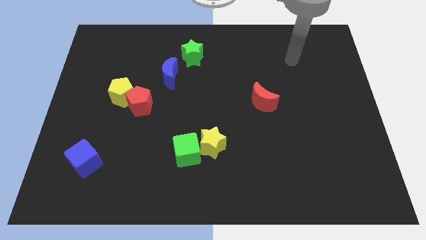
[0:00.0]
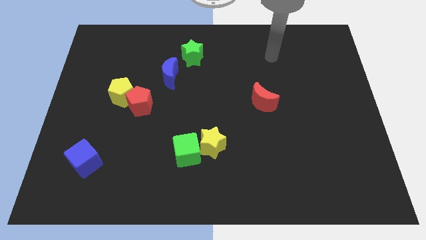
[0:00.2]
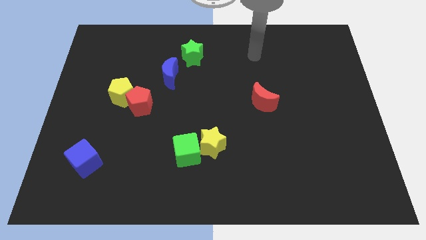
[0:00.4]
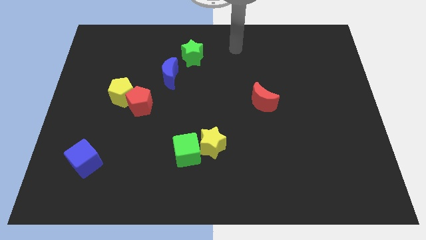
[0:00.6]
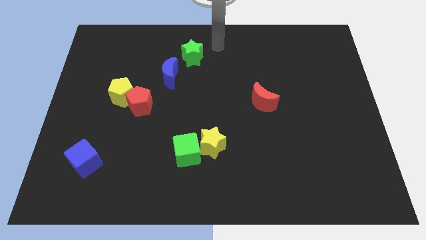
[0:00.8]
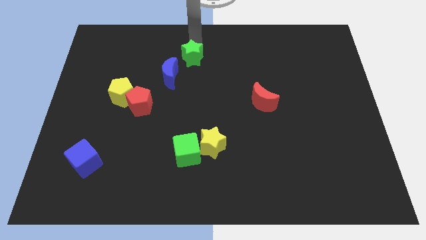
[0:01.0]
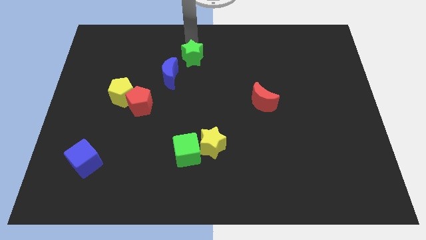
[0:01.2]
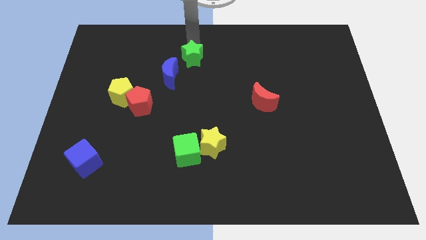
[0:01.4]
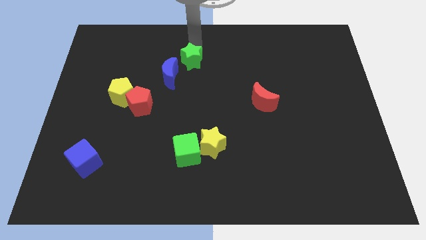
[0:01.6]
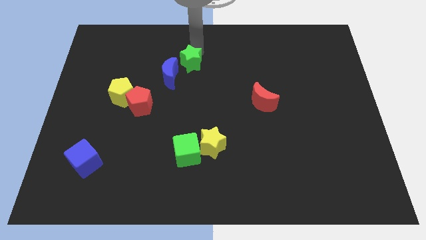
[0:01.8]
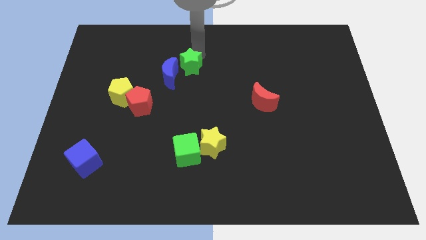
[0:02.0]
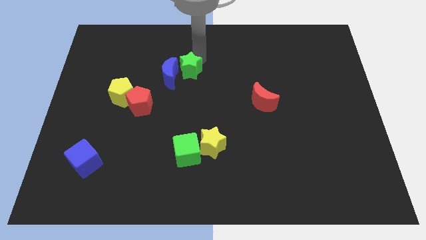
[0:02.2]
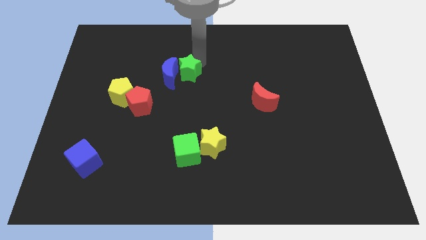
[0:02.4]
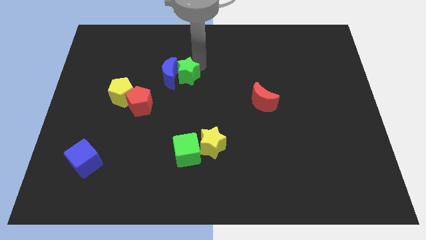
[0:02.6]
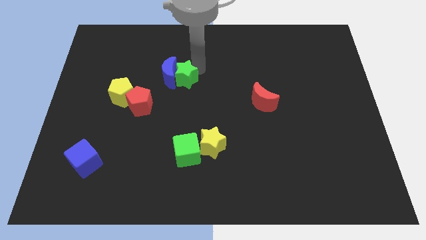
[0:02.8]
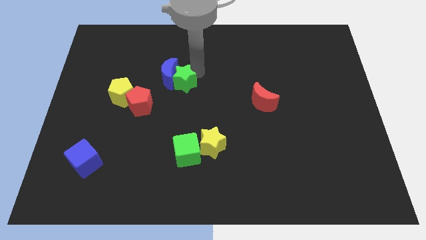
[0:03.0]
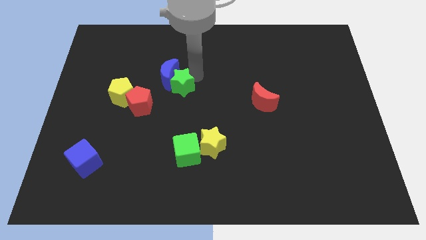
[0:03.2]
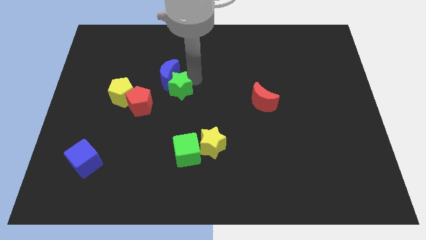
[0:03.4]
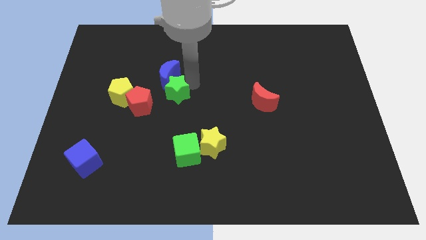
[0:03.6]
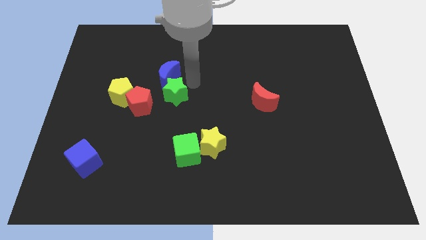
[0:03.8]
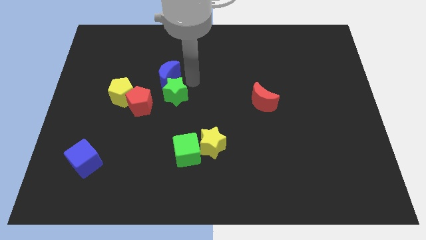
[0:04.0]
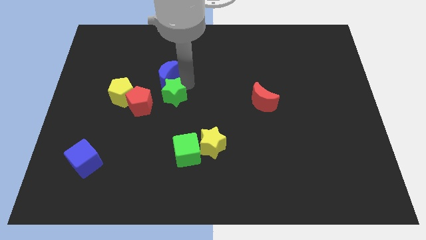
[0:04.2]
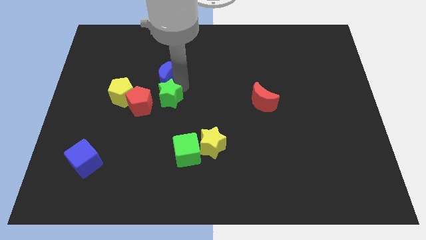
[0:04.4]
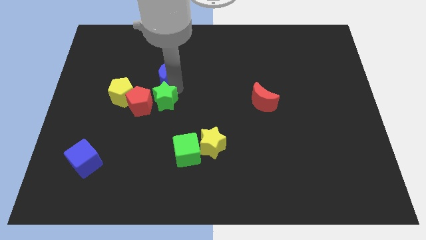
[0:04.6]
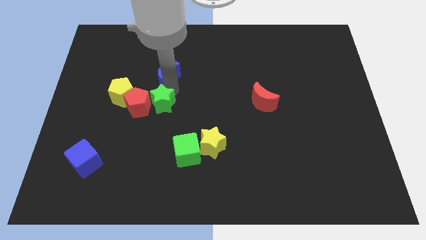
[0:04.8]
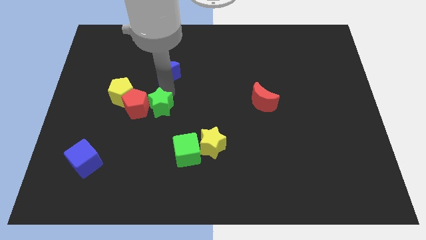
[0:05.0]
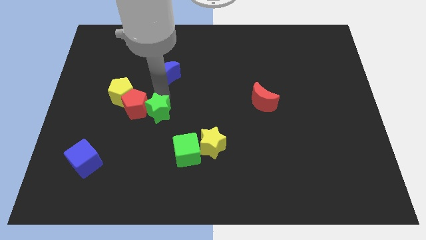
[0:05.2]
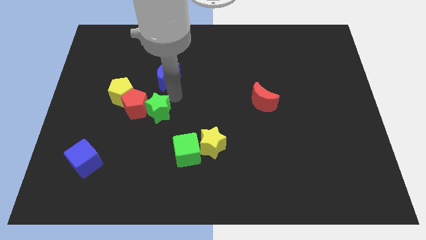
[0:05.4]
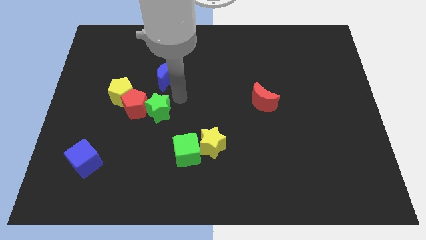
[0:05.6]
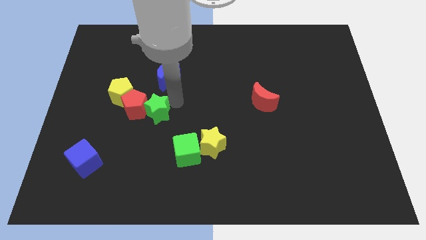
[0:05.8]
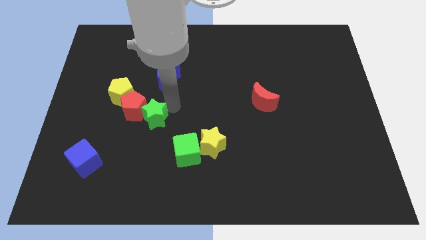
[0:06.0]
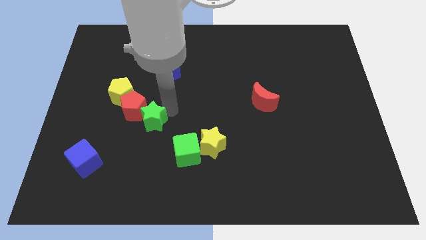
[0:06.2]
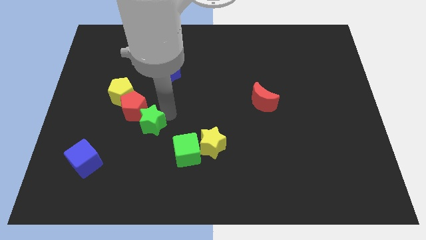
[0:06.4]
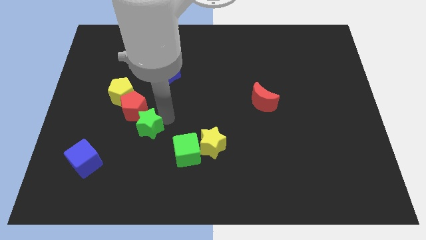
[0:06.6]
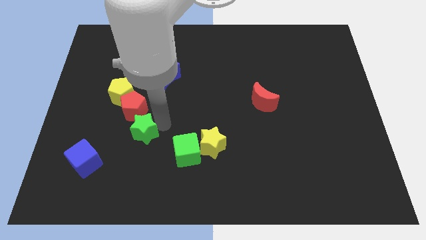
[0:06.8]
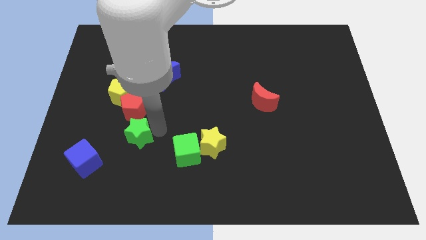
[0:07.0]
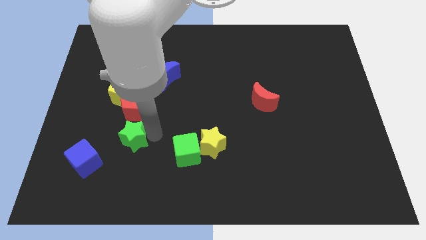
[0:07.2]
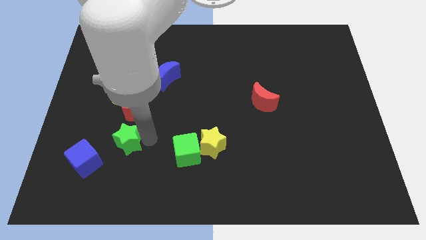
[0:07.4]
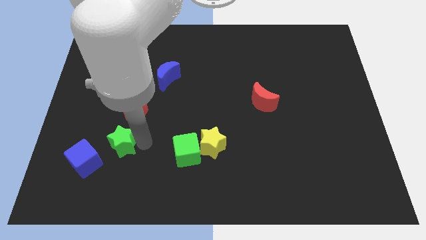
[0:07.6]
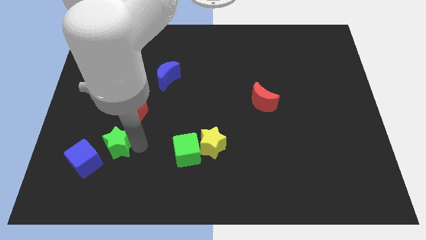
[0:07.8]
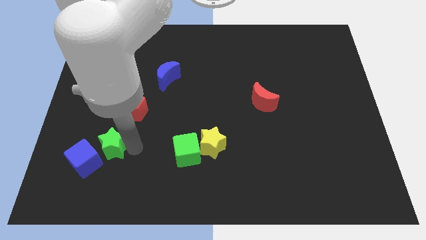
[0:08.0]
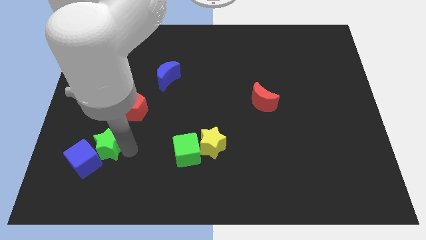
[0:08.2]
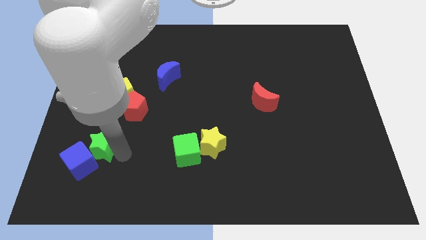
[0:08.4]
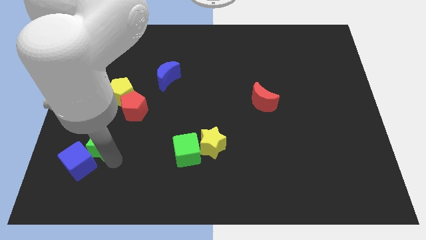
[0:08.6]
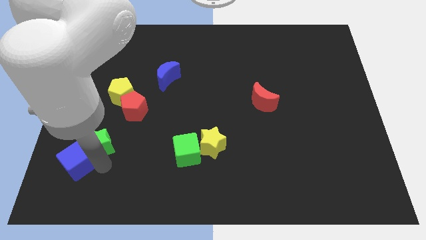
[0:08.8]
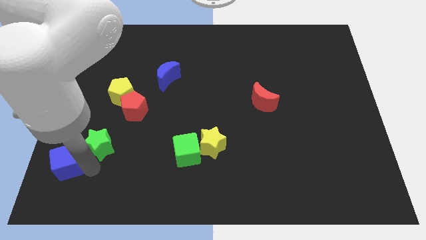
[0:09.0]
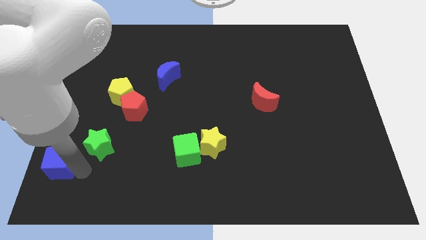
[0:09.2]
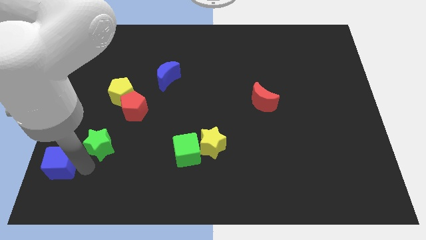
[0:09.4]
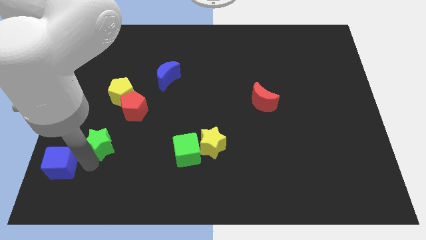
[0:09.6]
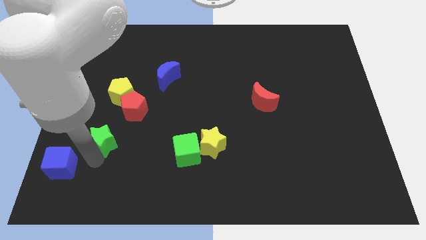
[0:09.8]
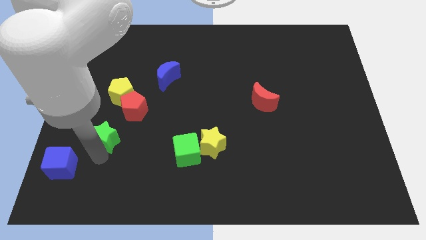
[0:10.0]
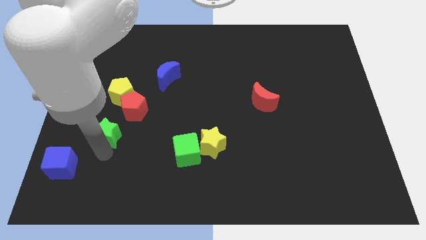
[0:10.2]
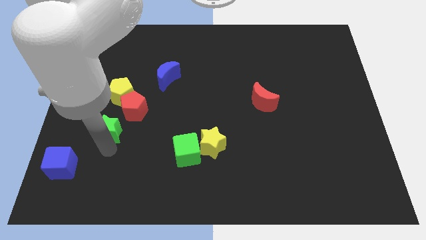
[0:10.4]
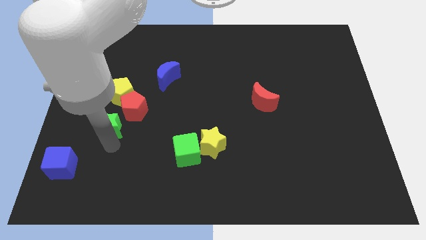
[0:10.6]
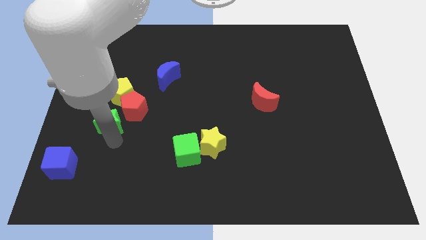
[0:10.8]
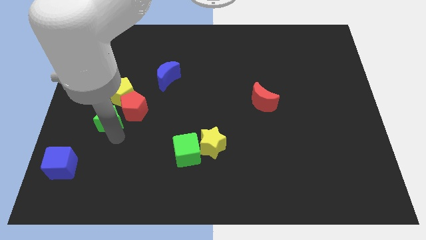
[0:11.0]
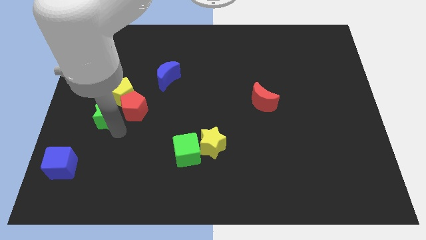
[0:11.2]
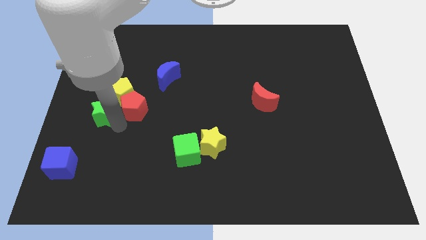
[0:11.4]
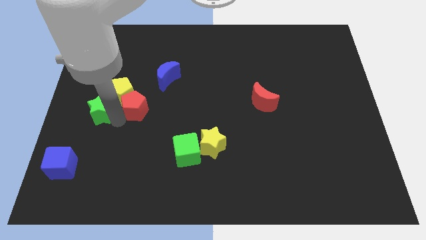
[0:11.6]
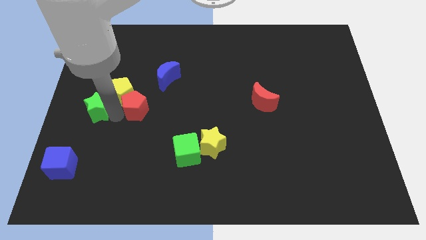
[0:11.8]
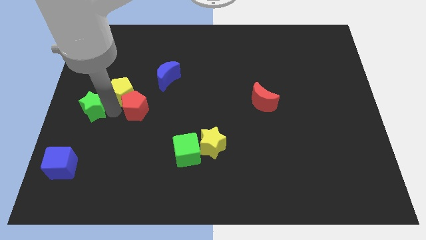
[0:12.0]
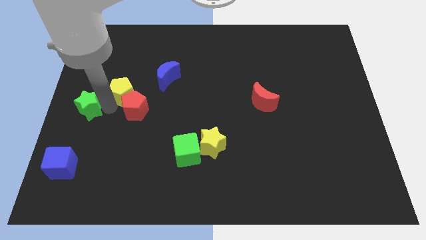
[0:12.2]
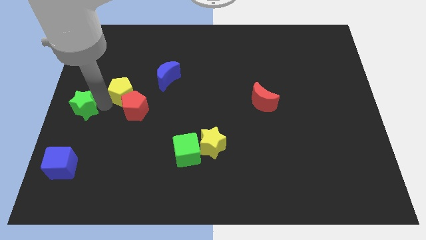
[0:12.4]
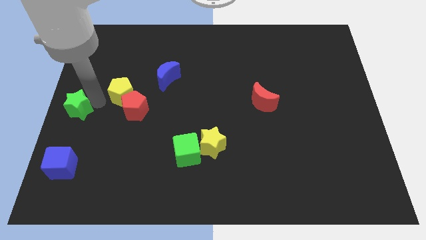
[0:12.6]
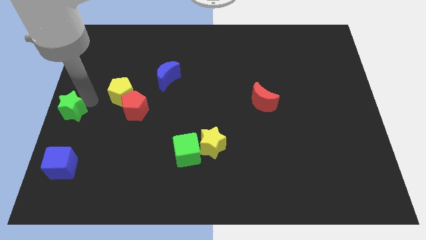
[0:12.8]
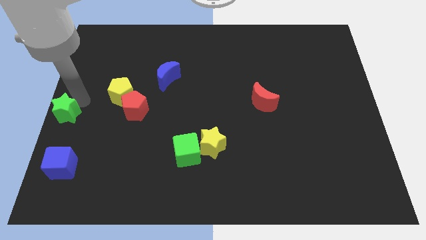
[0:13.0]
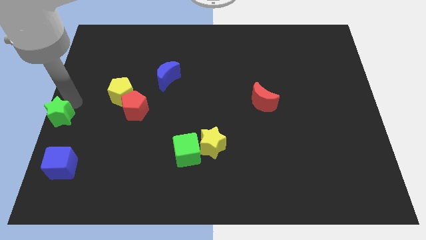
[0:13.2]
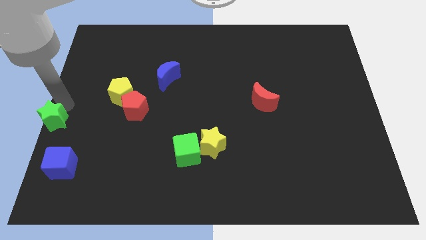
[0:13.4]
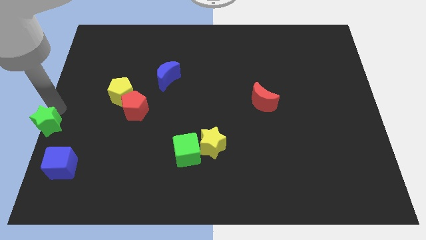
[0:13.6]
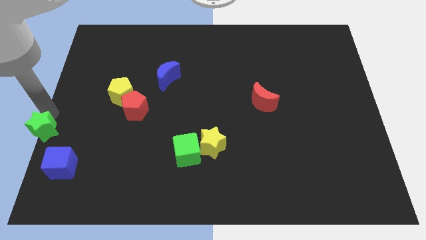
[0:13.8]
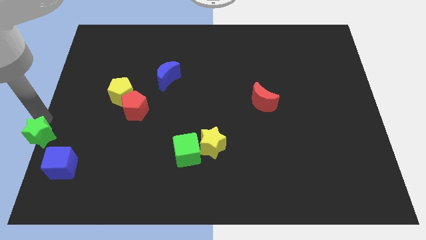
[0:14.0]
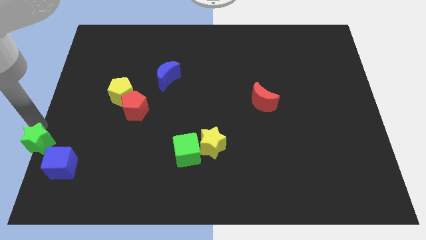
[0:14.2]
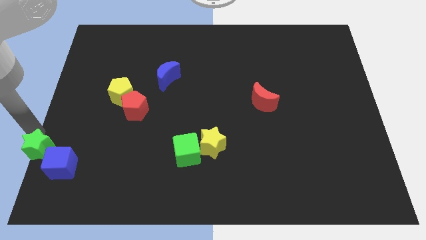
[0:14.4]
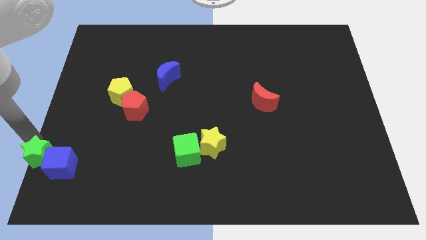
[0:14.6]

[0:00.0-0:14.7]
push the green star to the bottom left corner
